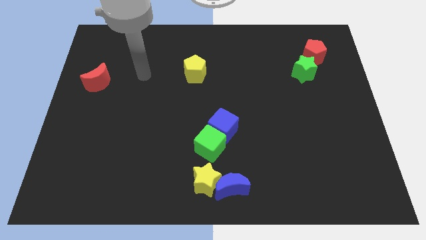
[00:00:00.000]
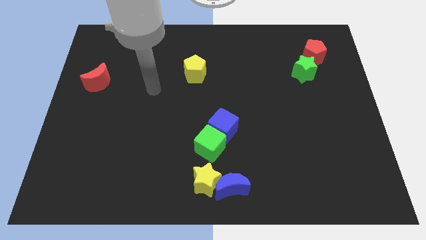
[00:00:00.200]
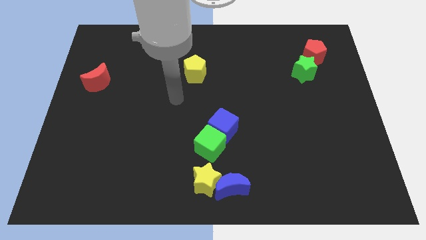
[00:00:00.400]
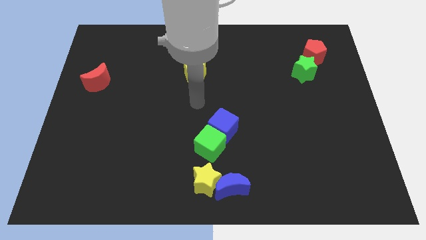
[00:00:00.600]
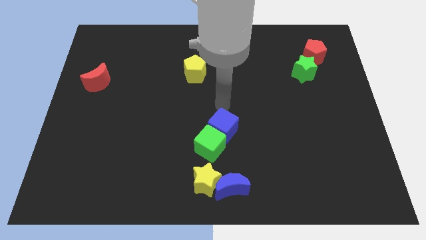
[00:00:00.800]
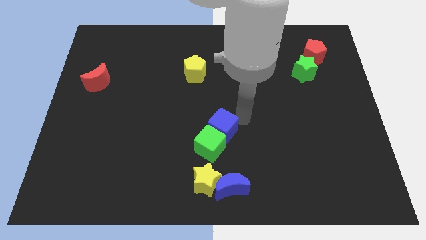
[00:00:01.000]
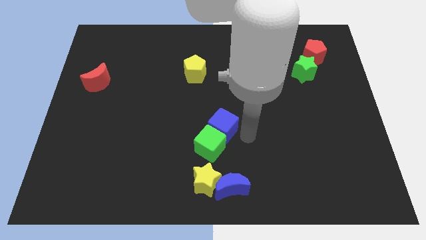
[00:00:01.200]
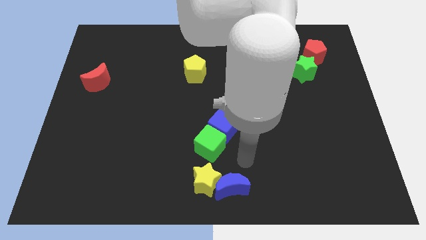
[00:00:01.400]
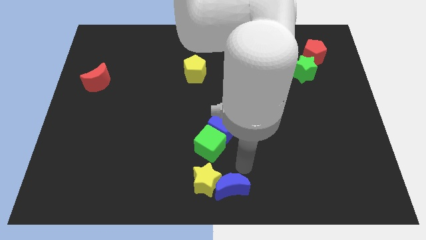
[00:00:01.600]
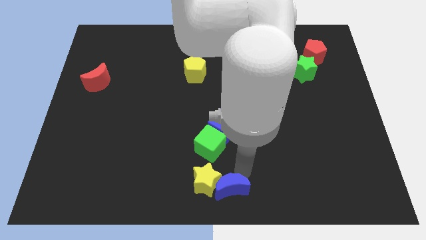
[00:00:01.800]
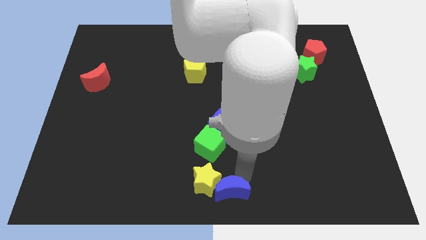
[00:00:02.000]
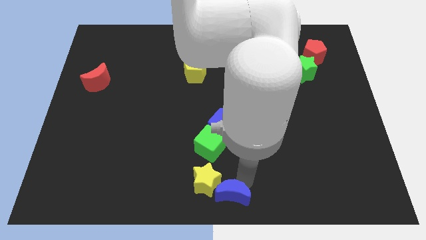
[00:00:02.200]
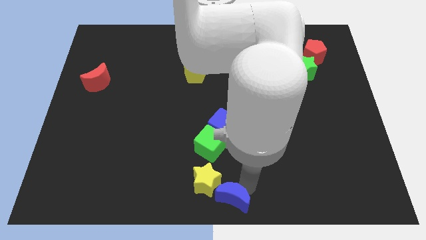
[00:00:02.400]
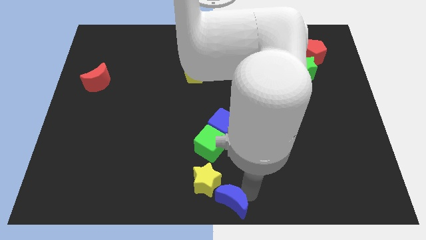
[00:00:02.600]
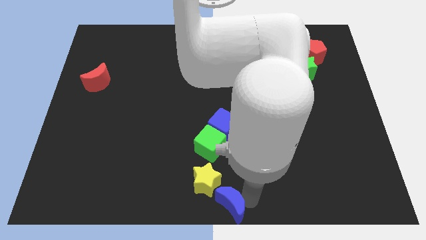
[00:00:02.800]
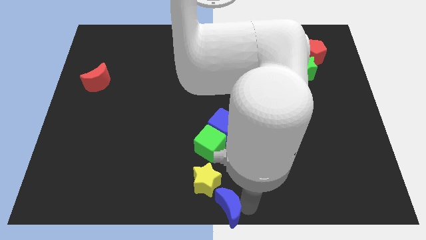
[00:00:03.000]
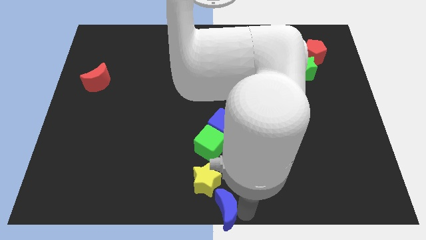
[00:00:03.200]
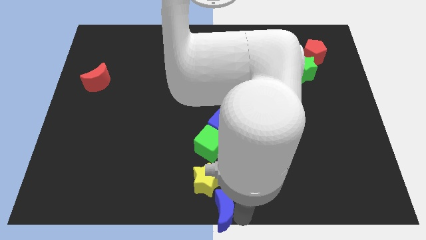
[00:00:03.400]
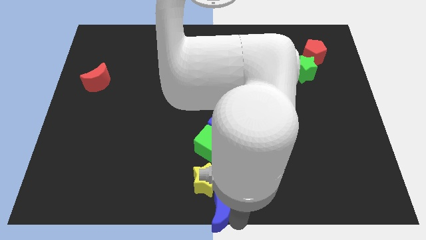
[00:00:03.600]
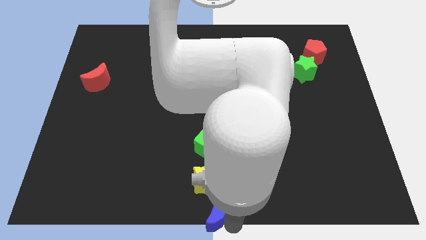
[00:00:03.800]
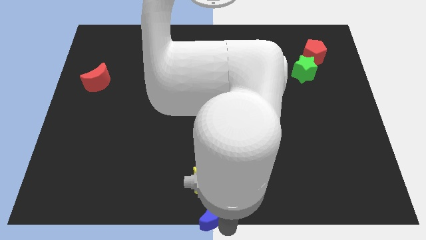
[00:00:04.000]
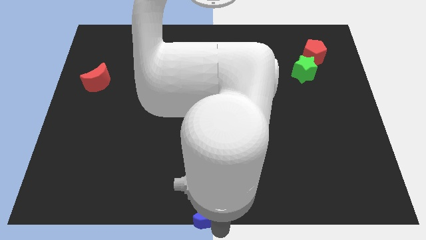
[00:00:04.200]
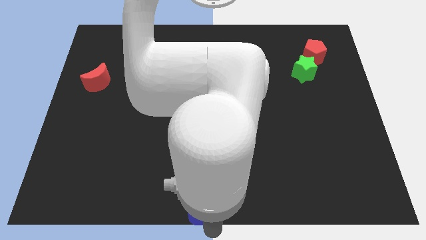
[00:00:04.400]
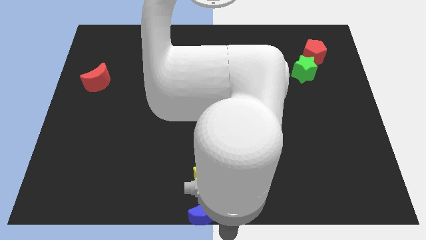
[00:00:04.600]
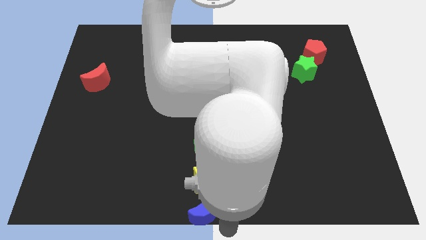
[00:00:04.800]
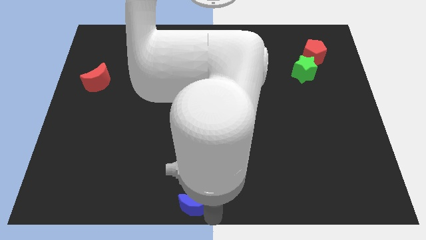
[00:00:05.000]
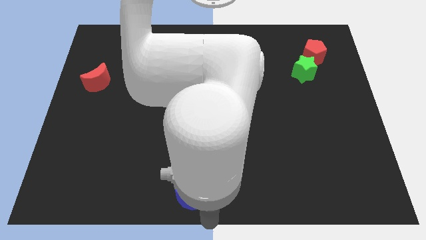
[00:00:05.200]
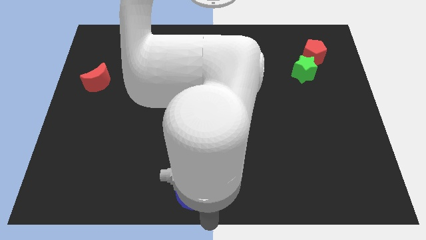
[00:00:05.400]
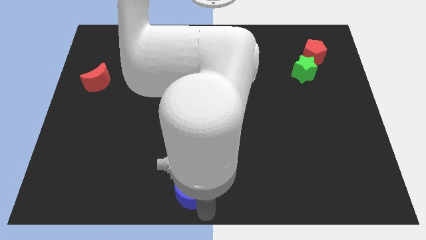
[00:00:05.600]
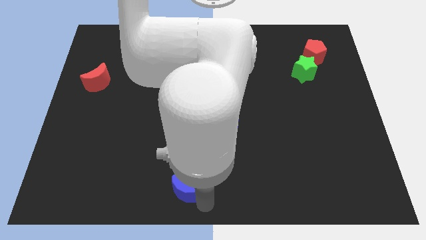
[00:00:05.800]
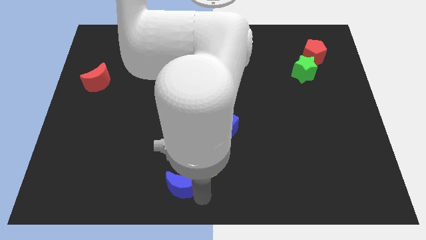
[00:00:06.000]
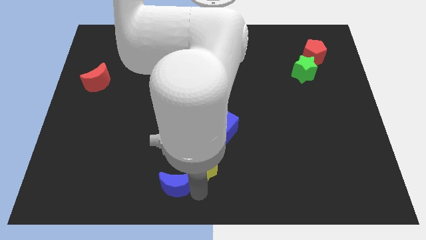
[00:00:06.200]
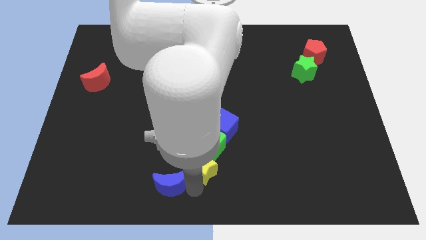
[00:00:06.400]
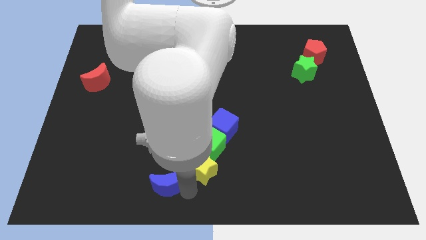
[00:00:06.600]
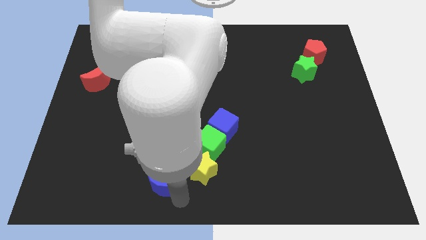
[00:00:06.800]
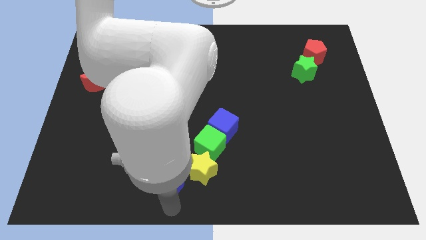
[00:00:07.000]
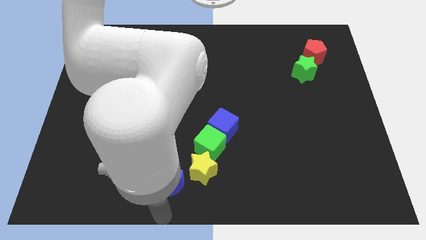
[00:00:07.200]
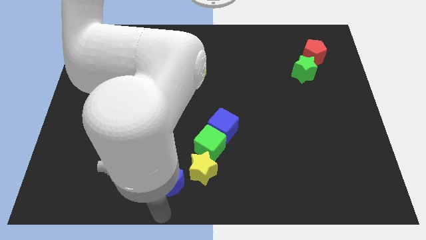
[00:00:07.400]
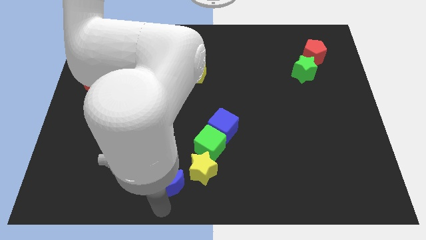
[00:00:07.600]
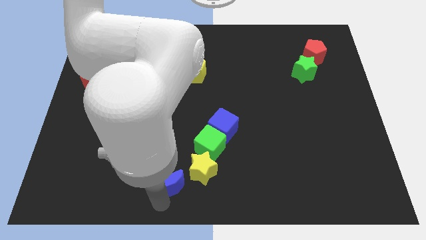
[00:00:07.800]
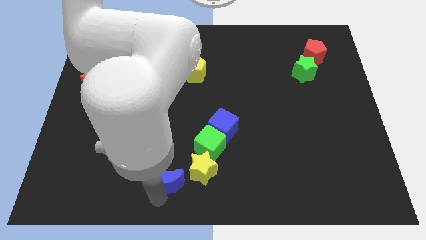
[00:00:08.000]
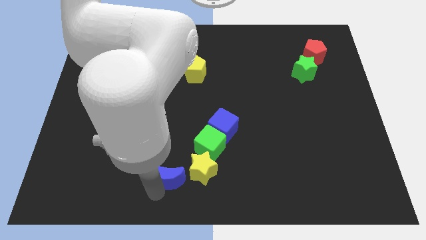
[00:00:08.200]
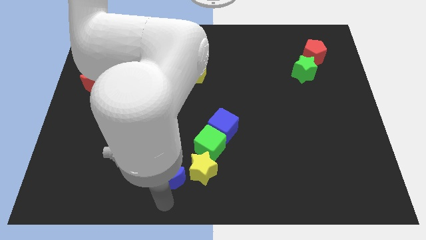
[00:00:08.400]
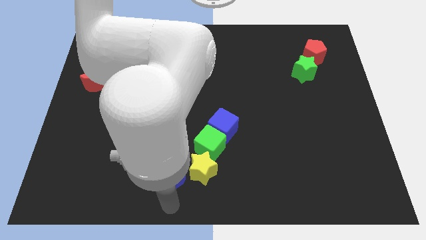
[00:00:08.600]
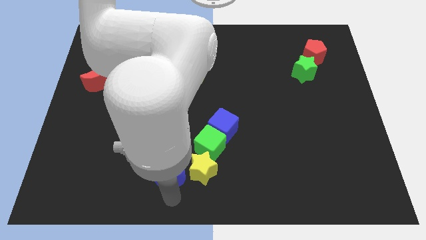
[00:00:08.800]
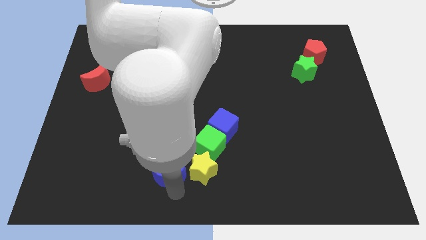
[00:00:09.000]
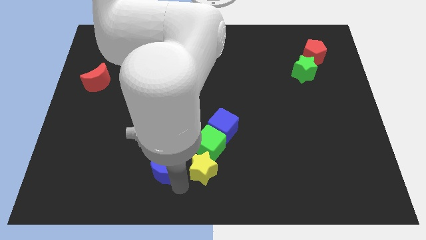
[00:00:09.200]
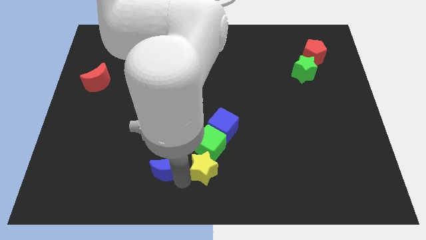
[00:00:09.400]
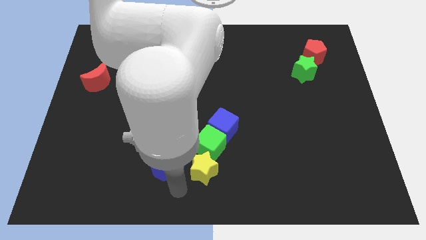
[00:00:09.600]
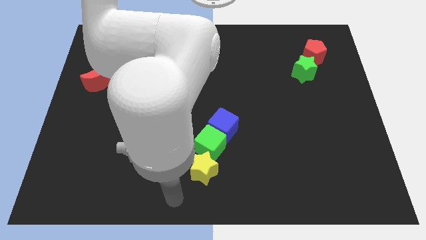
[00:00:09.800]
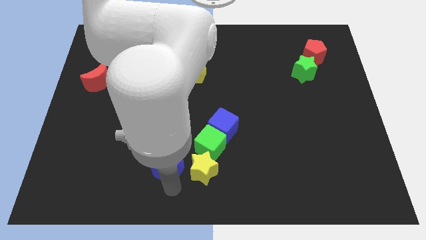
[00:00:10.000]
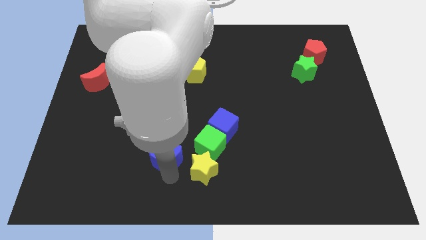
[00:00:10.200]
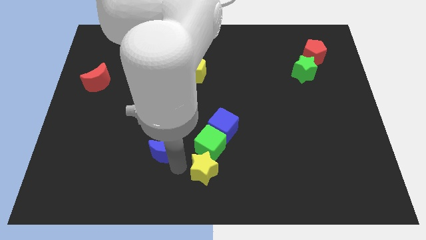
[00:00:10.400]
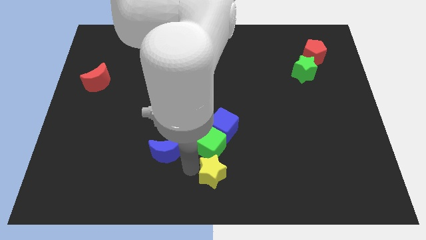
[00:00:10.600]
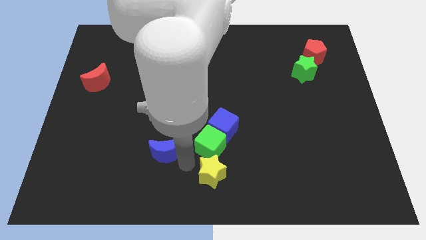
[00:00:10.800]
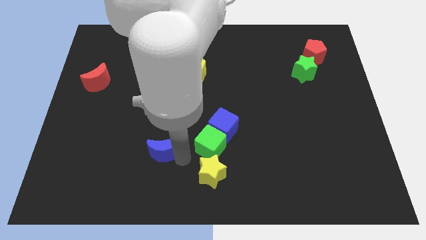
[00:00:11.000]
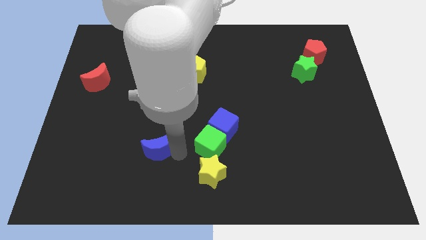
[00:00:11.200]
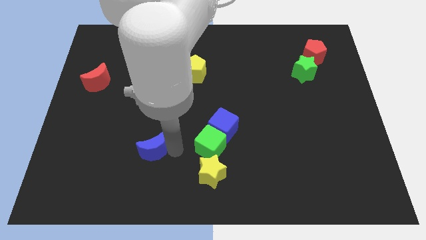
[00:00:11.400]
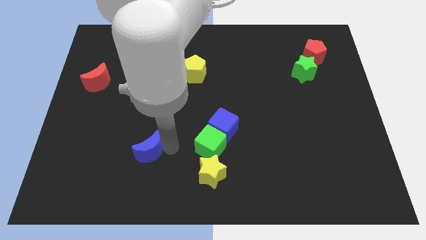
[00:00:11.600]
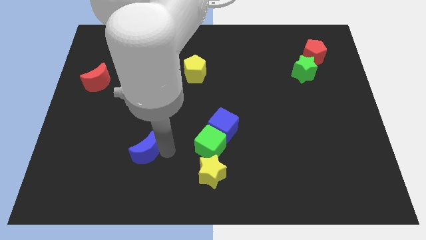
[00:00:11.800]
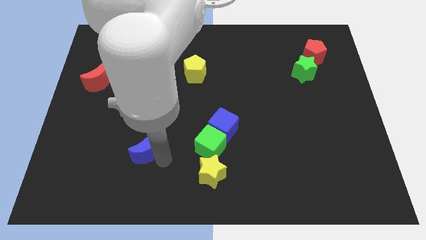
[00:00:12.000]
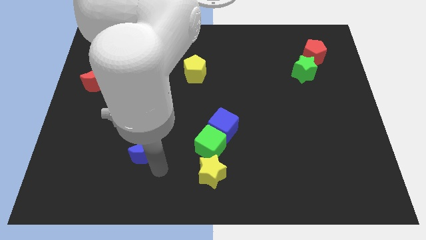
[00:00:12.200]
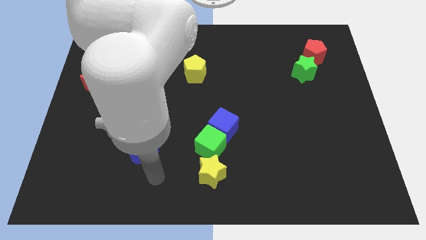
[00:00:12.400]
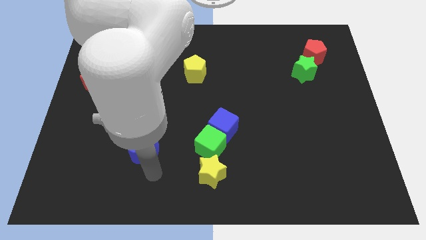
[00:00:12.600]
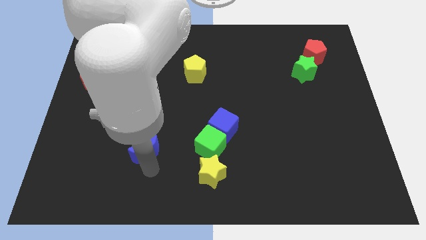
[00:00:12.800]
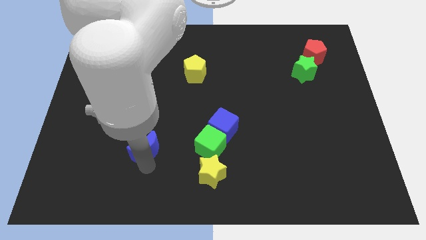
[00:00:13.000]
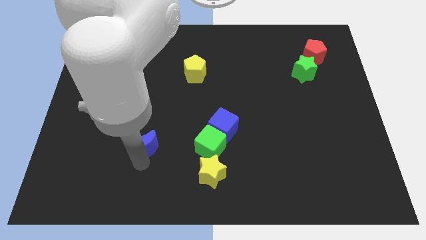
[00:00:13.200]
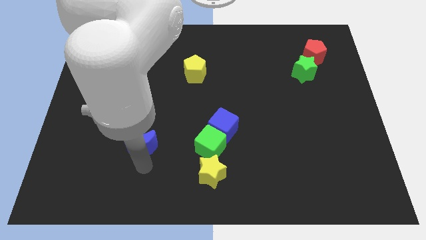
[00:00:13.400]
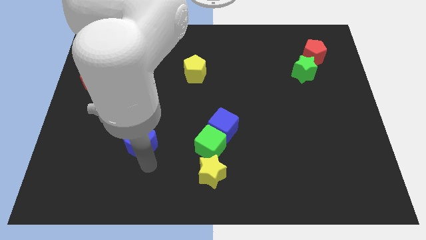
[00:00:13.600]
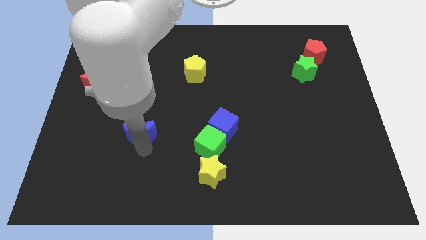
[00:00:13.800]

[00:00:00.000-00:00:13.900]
slide the blue moon upwards and left diagonally

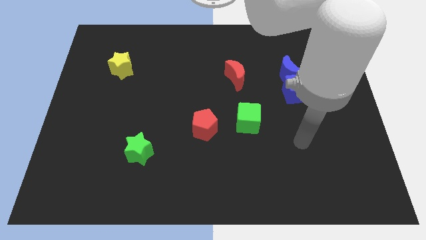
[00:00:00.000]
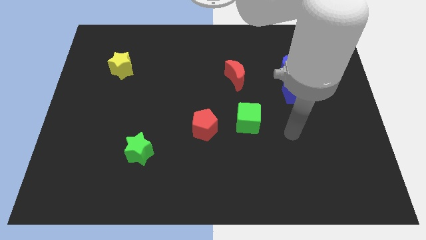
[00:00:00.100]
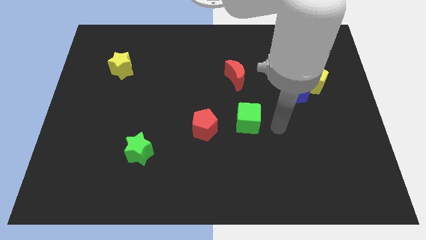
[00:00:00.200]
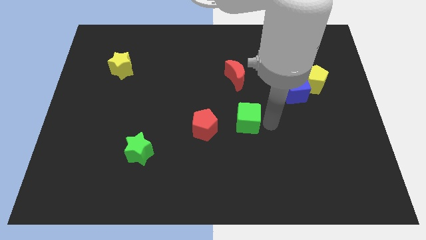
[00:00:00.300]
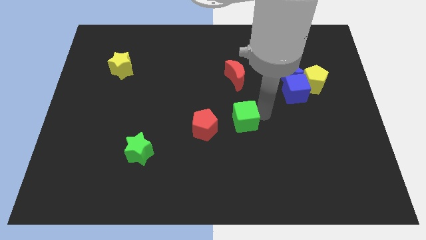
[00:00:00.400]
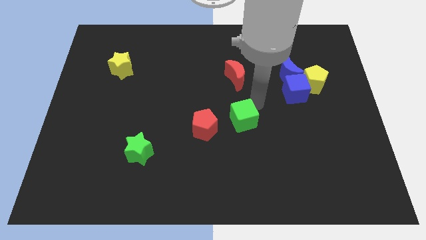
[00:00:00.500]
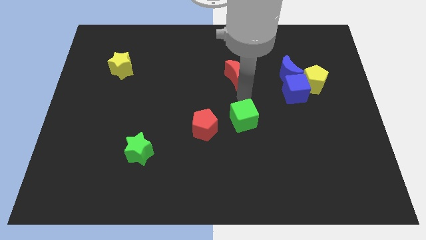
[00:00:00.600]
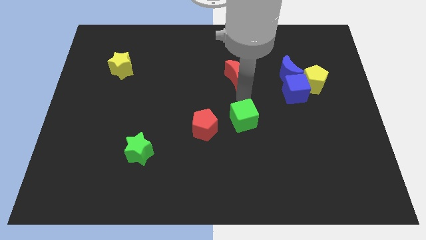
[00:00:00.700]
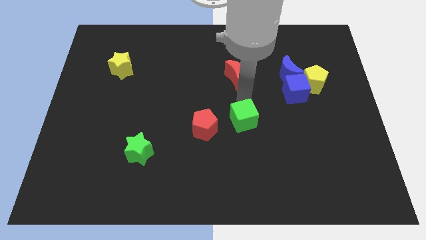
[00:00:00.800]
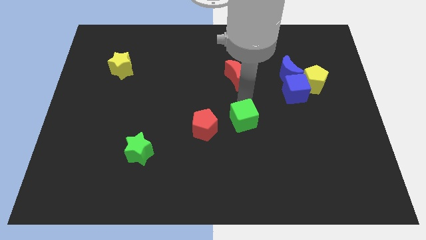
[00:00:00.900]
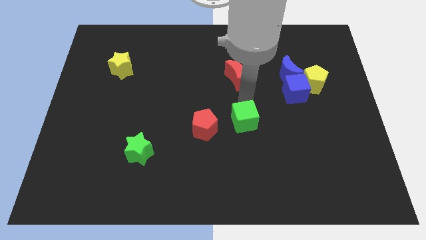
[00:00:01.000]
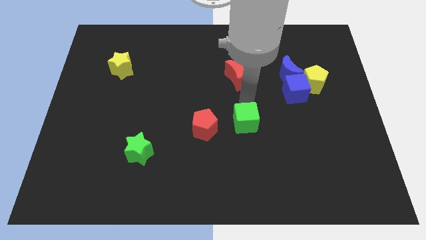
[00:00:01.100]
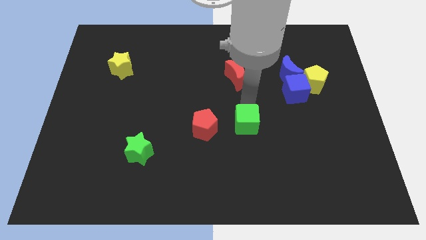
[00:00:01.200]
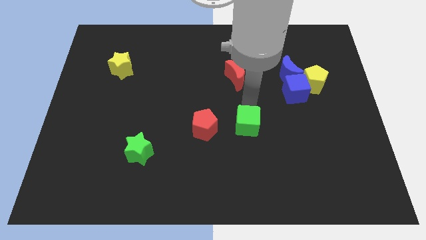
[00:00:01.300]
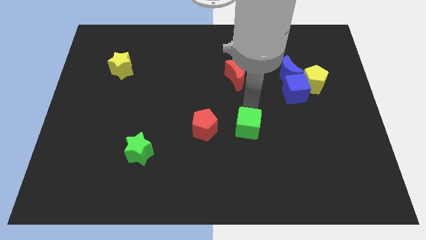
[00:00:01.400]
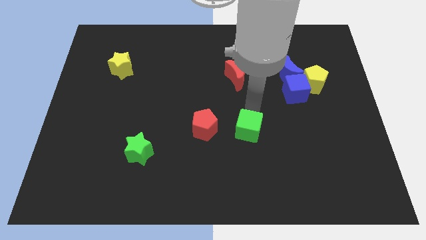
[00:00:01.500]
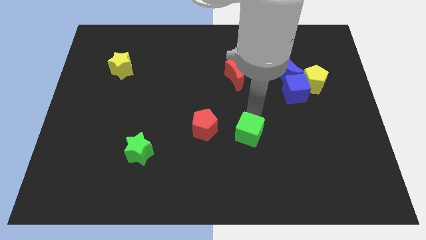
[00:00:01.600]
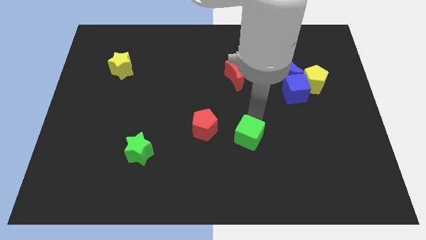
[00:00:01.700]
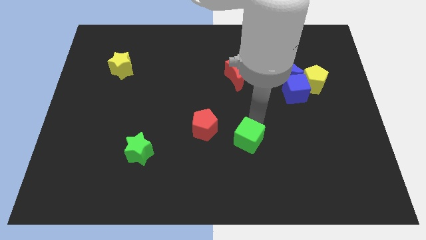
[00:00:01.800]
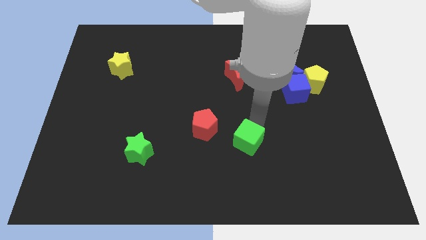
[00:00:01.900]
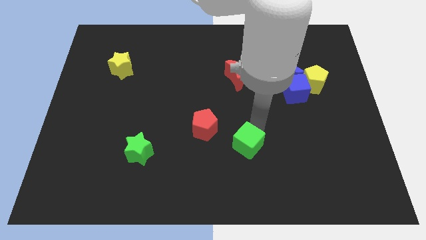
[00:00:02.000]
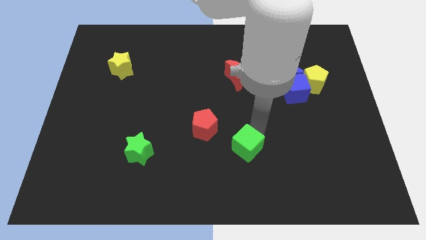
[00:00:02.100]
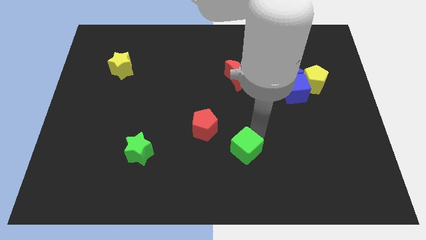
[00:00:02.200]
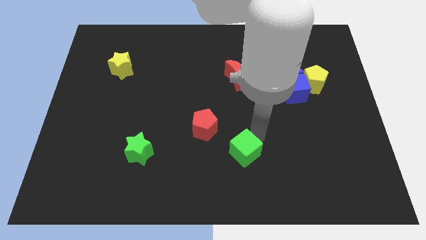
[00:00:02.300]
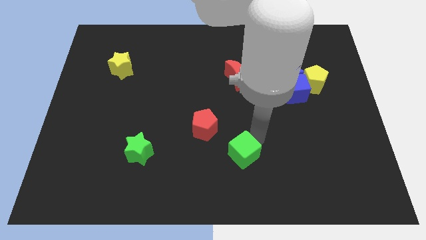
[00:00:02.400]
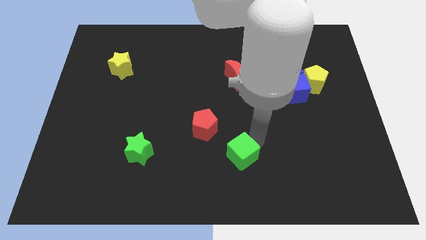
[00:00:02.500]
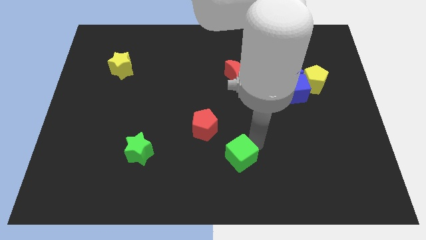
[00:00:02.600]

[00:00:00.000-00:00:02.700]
move the green cube a bit down and to the left
